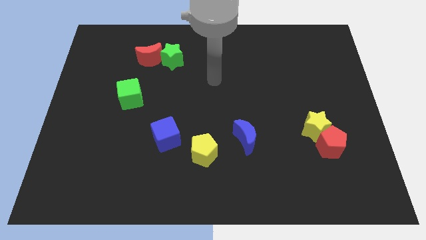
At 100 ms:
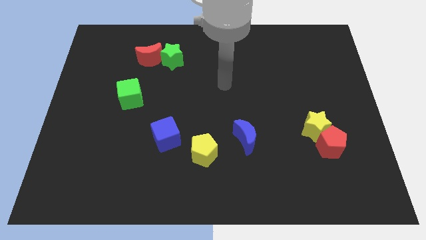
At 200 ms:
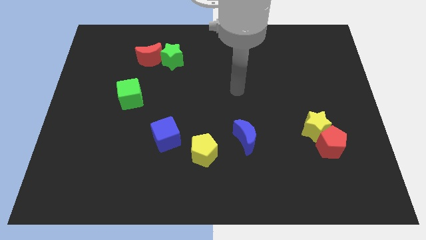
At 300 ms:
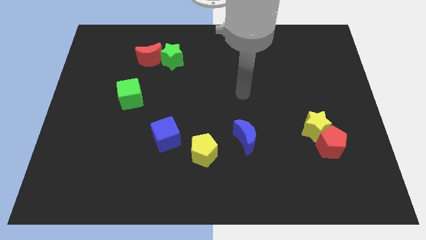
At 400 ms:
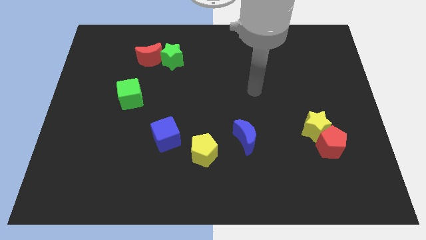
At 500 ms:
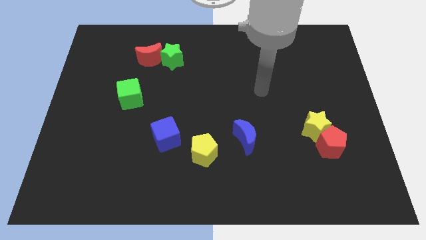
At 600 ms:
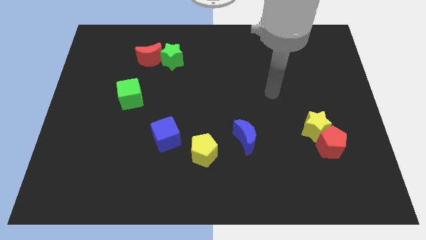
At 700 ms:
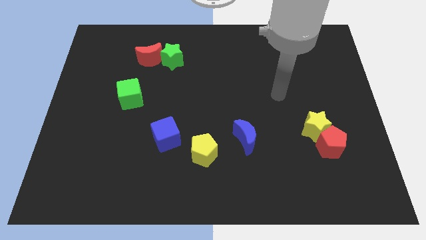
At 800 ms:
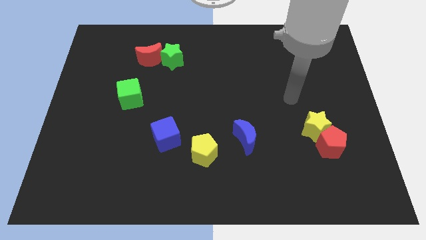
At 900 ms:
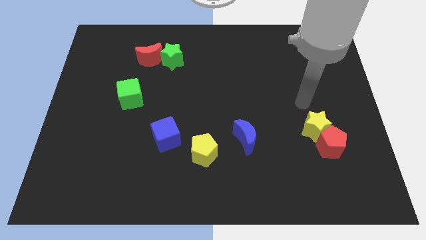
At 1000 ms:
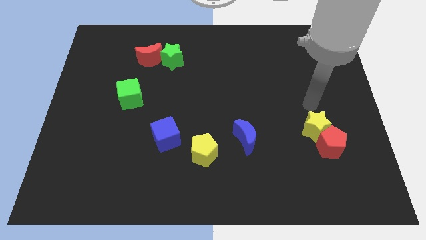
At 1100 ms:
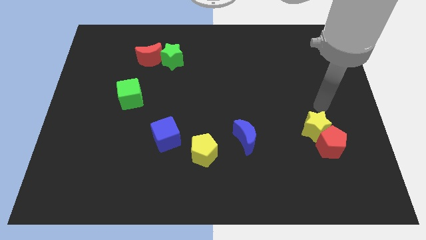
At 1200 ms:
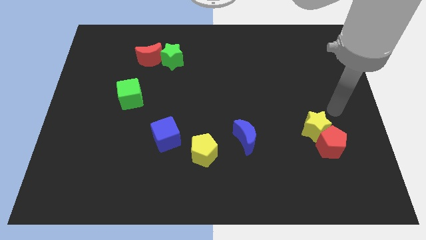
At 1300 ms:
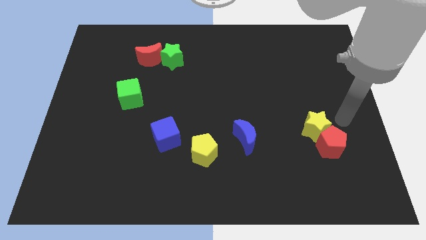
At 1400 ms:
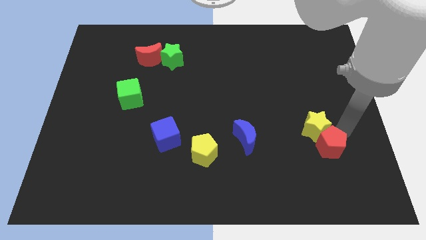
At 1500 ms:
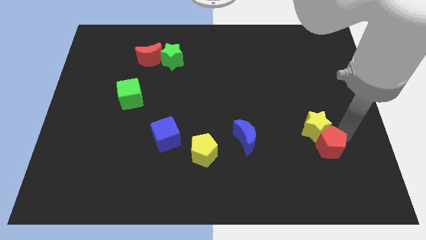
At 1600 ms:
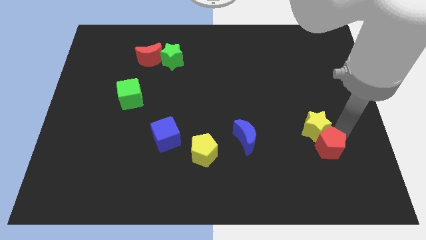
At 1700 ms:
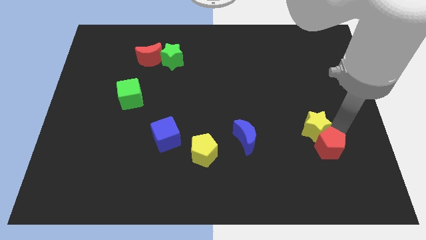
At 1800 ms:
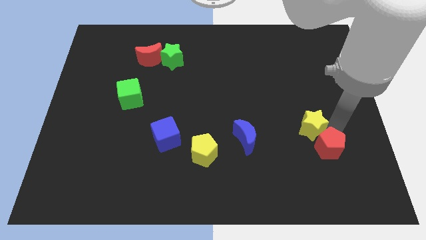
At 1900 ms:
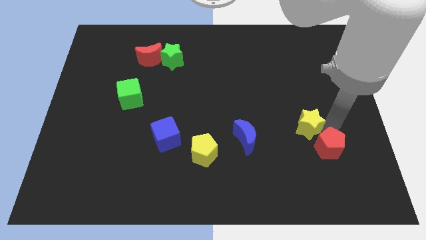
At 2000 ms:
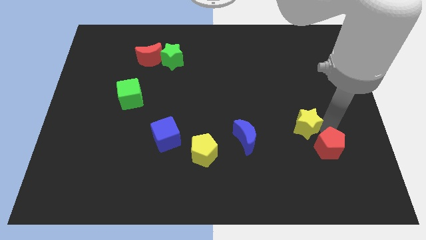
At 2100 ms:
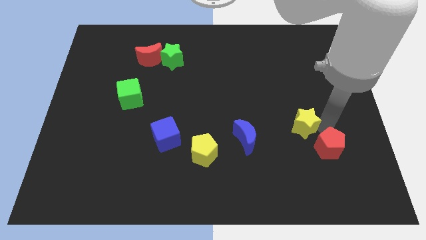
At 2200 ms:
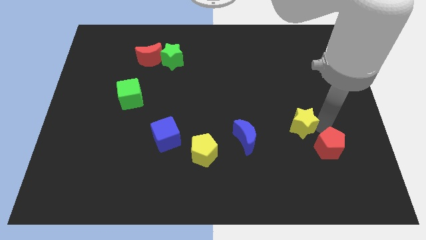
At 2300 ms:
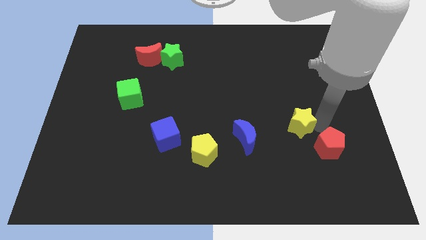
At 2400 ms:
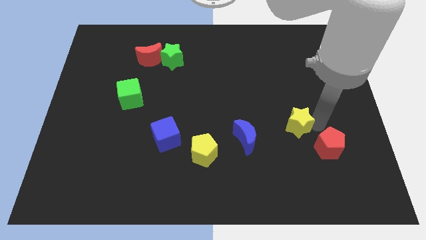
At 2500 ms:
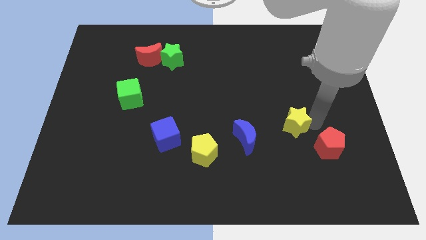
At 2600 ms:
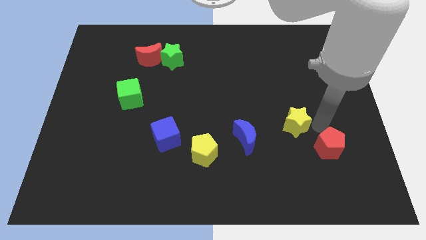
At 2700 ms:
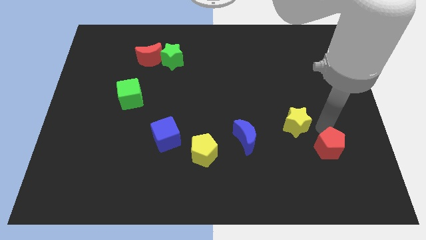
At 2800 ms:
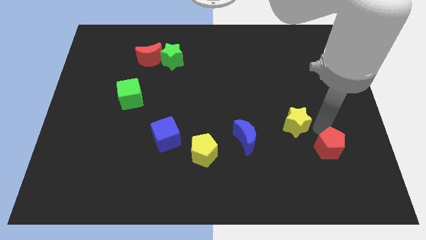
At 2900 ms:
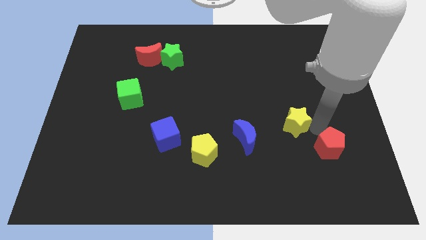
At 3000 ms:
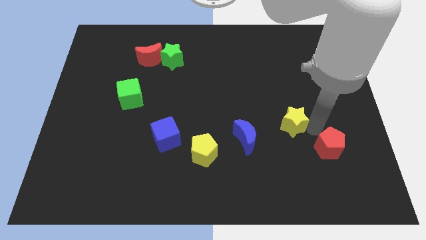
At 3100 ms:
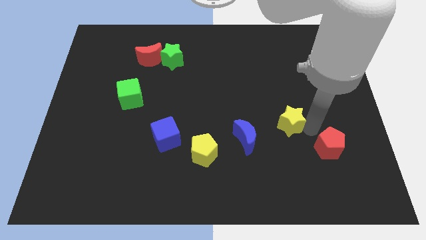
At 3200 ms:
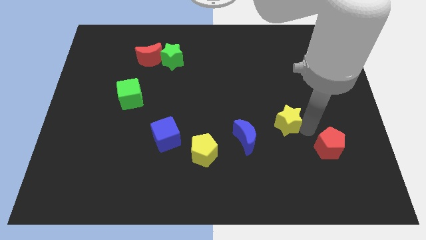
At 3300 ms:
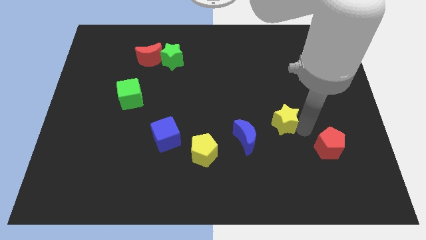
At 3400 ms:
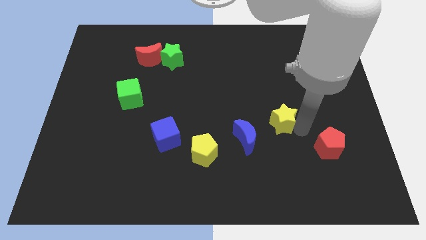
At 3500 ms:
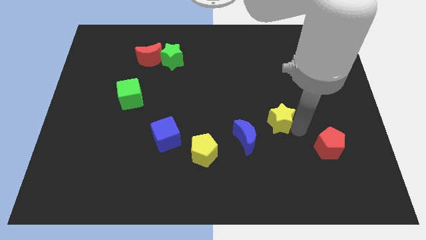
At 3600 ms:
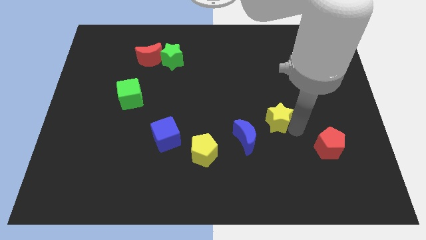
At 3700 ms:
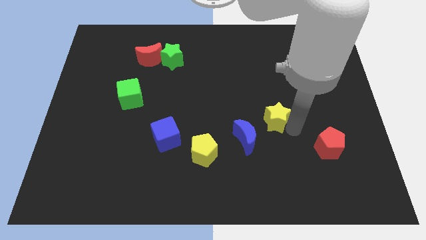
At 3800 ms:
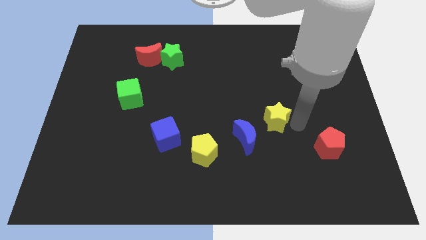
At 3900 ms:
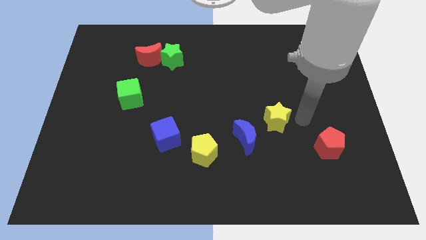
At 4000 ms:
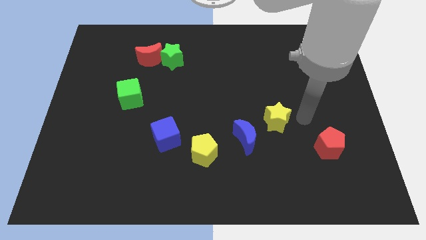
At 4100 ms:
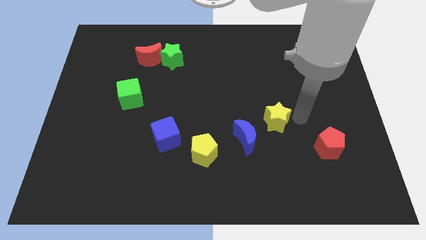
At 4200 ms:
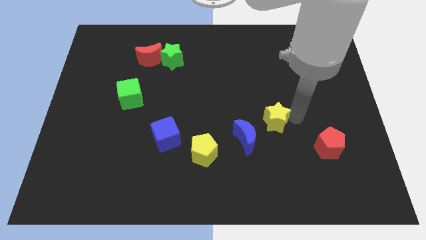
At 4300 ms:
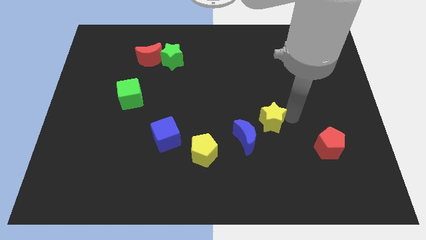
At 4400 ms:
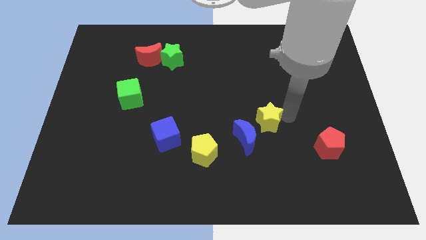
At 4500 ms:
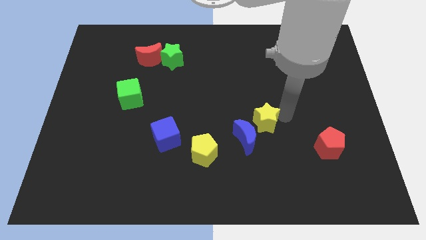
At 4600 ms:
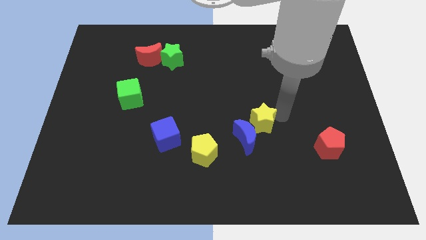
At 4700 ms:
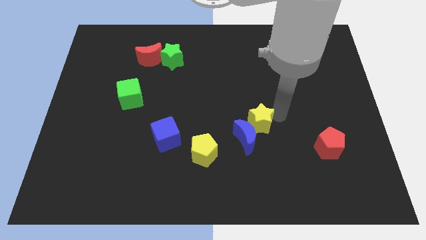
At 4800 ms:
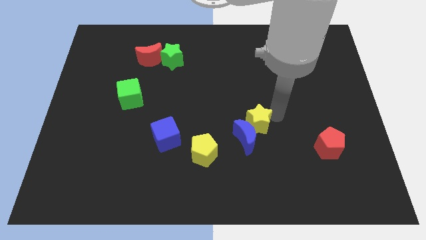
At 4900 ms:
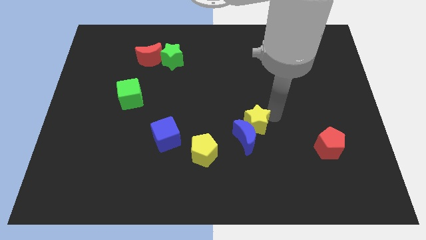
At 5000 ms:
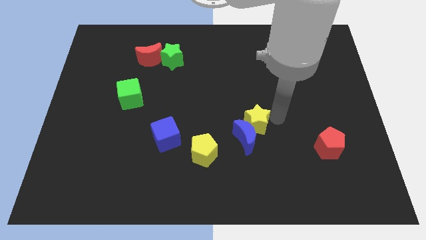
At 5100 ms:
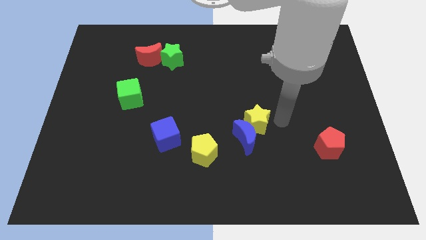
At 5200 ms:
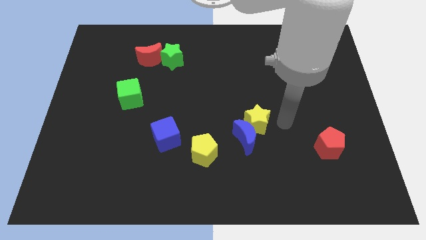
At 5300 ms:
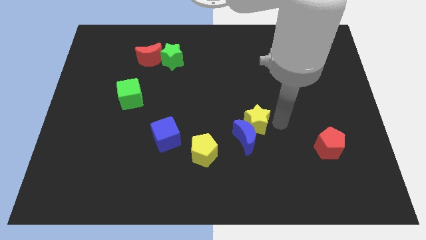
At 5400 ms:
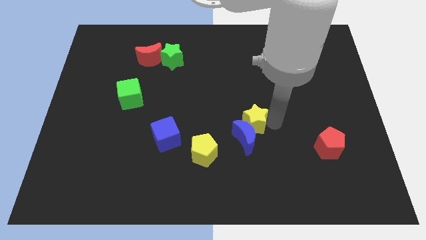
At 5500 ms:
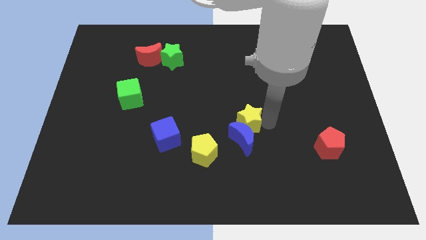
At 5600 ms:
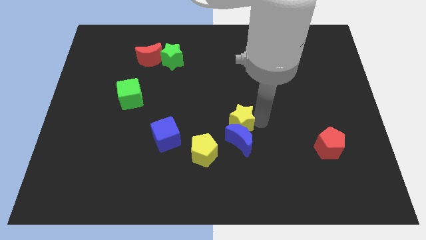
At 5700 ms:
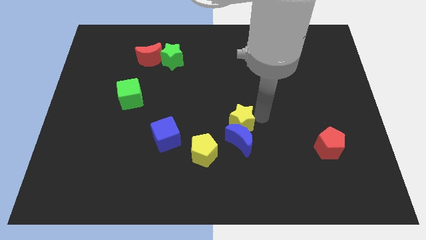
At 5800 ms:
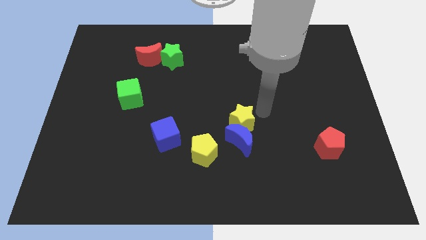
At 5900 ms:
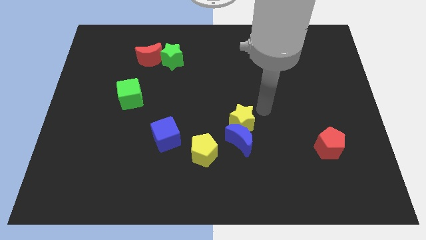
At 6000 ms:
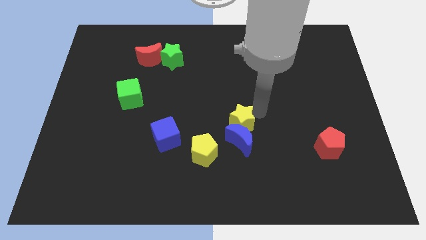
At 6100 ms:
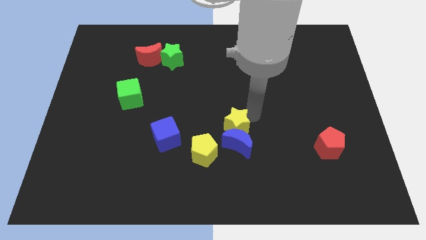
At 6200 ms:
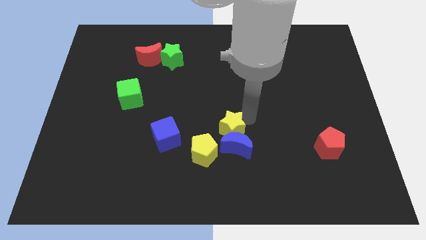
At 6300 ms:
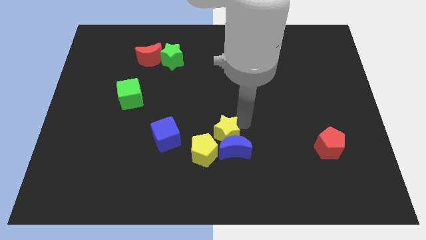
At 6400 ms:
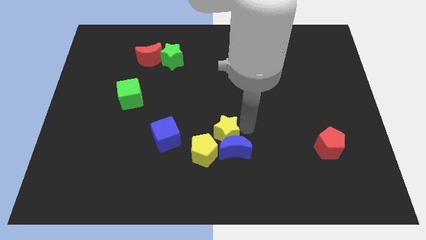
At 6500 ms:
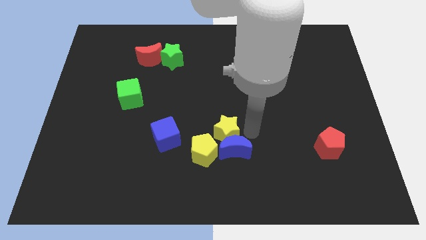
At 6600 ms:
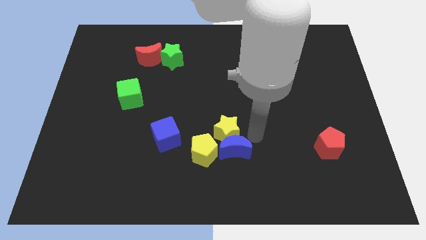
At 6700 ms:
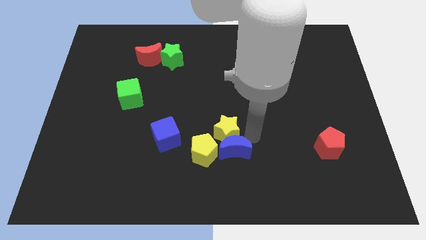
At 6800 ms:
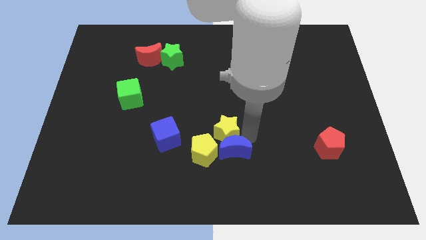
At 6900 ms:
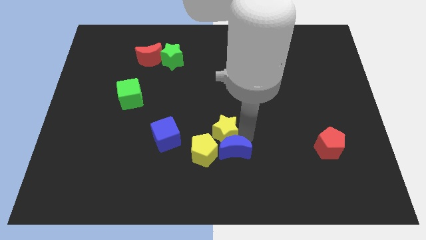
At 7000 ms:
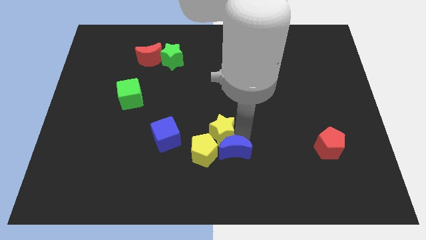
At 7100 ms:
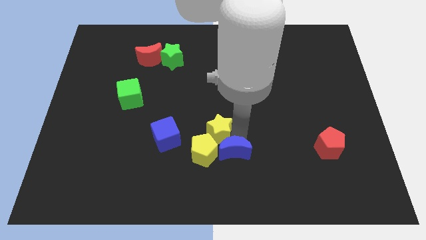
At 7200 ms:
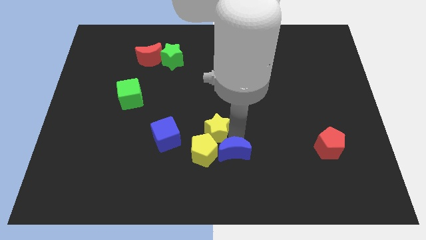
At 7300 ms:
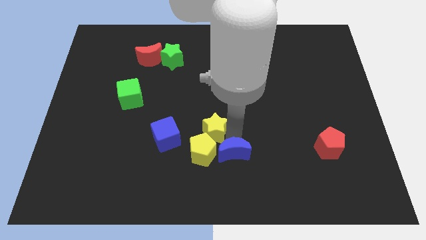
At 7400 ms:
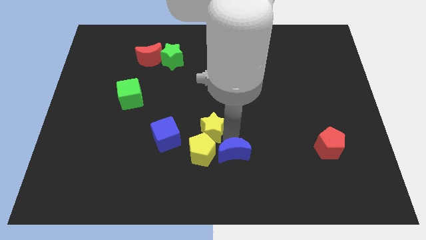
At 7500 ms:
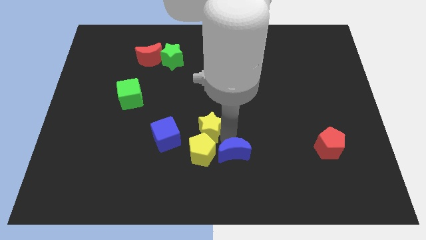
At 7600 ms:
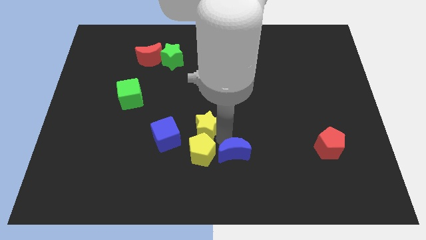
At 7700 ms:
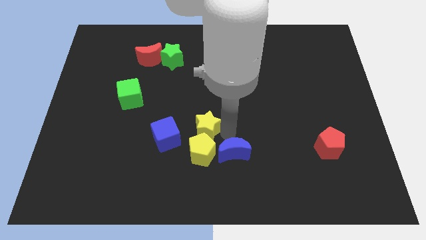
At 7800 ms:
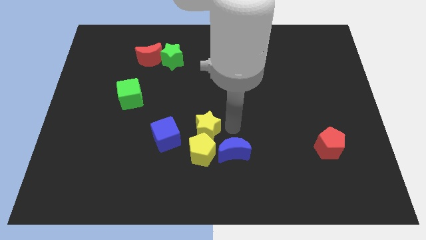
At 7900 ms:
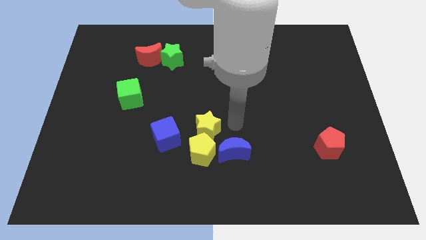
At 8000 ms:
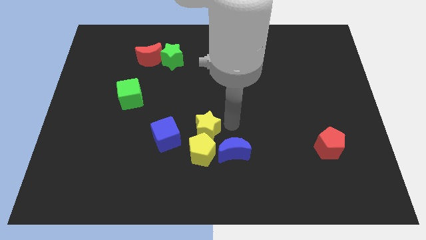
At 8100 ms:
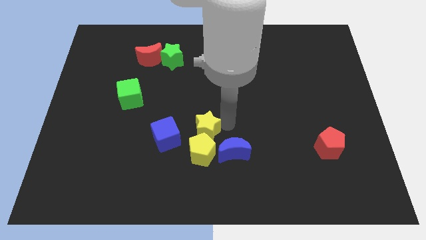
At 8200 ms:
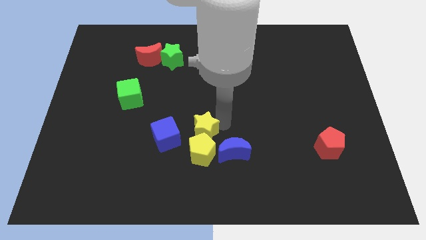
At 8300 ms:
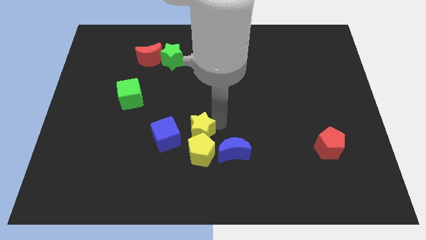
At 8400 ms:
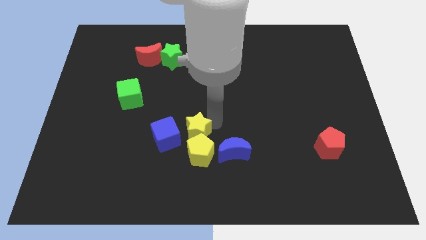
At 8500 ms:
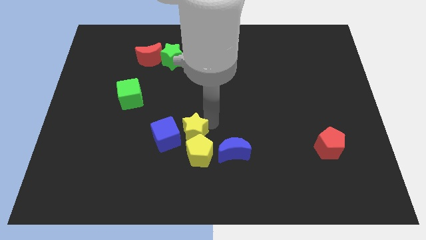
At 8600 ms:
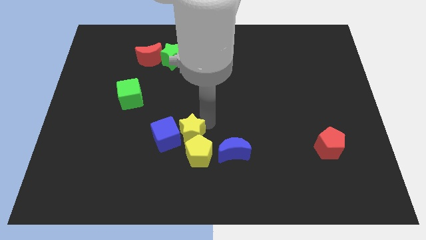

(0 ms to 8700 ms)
put the yellow star close to the blue cube
